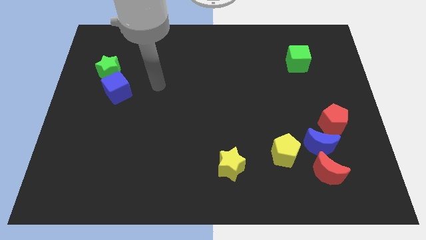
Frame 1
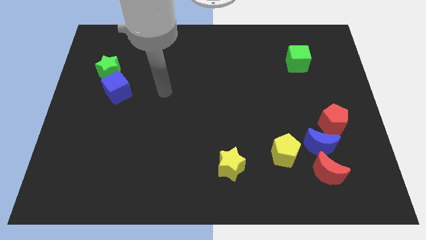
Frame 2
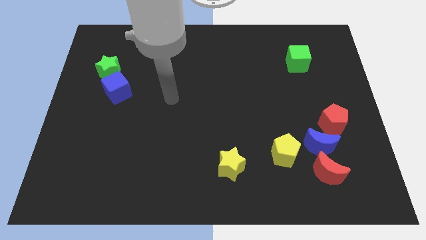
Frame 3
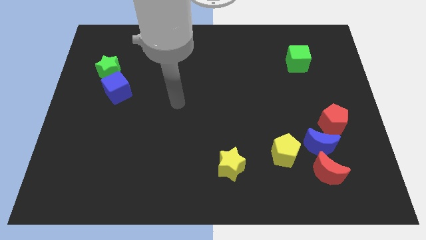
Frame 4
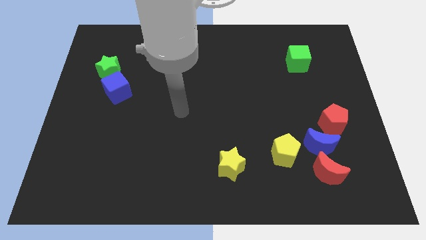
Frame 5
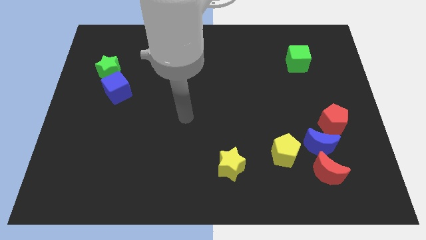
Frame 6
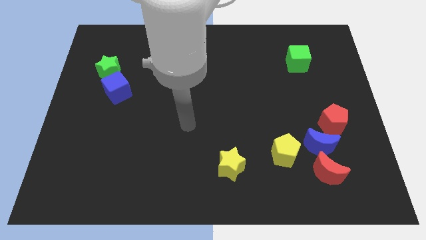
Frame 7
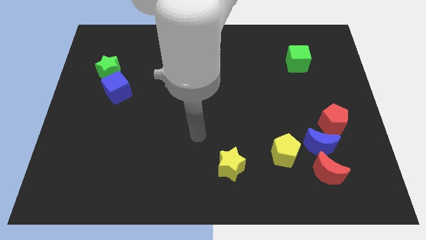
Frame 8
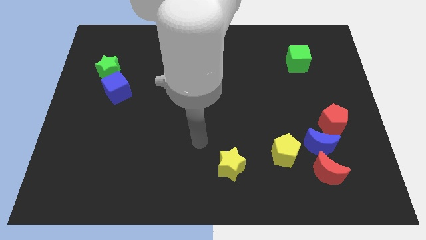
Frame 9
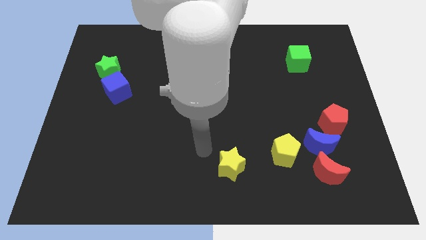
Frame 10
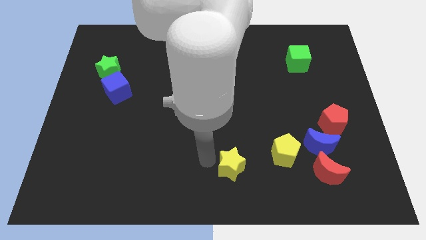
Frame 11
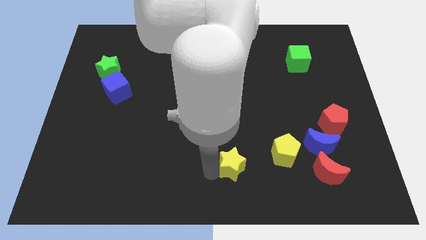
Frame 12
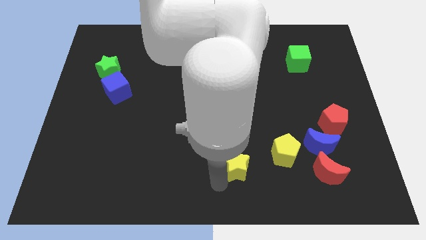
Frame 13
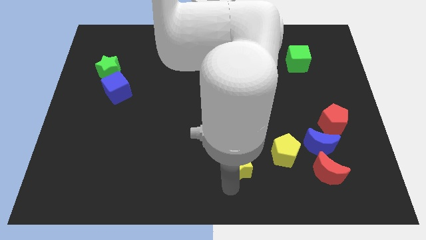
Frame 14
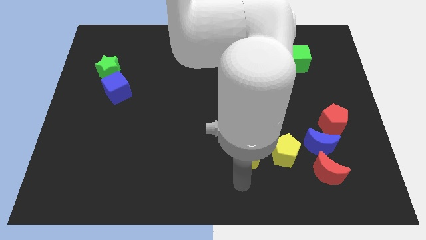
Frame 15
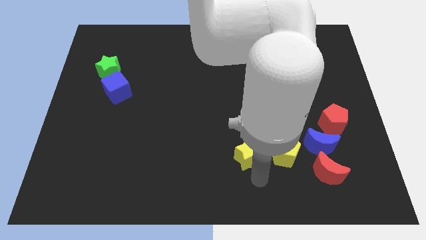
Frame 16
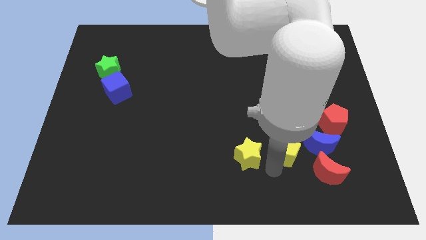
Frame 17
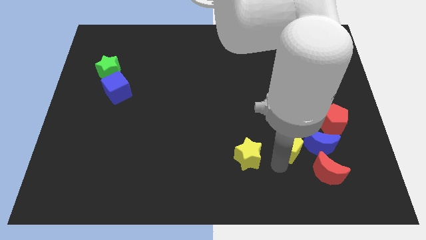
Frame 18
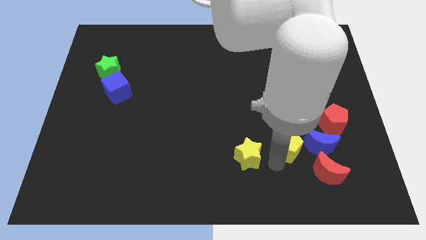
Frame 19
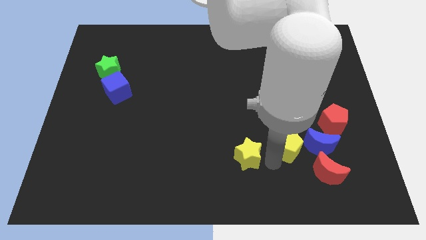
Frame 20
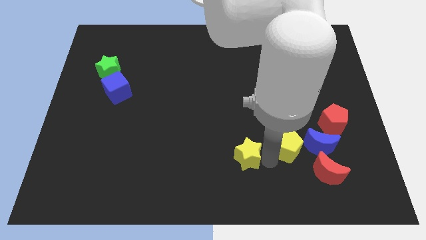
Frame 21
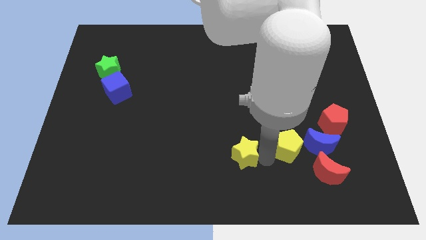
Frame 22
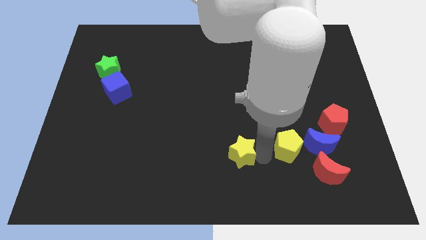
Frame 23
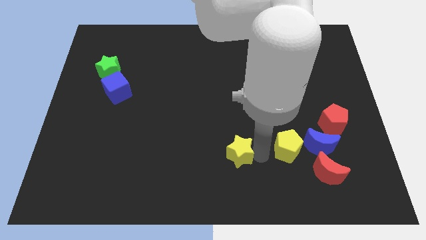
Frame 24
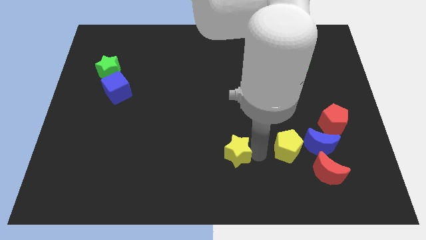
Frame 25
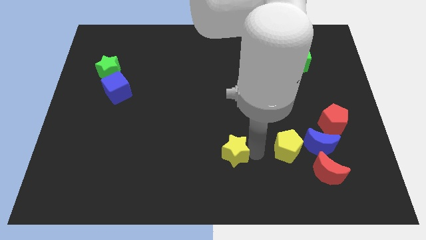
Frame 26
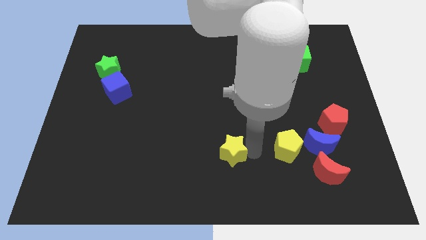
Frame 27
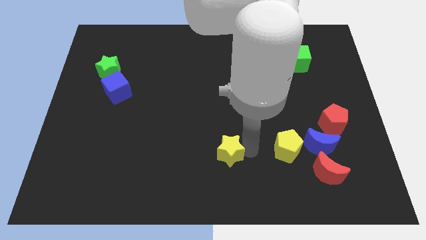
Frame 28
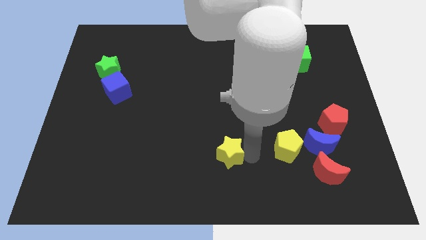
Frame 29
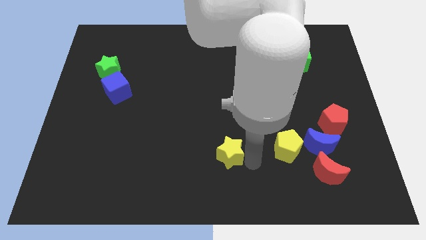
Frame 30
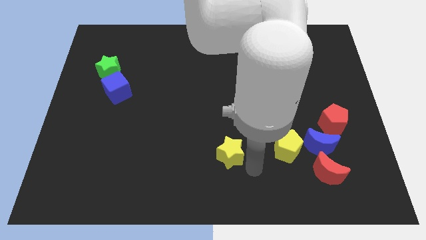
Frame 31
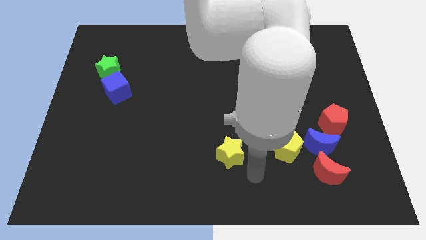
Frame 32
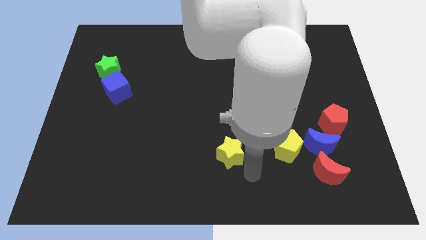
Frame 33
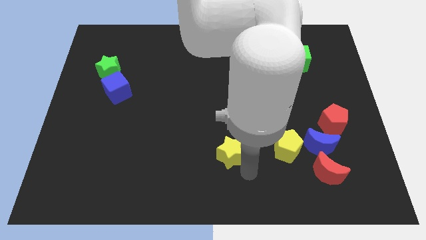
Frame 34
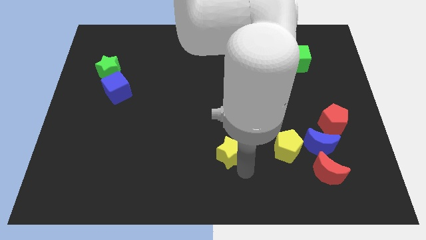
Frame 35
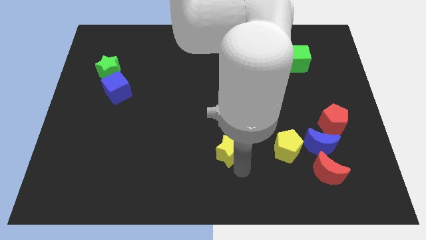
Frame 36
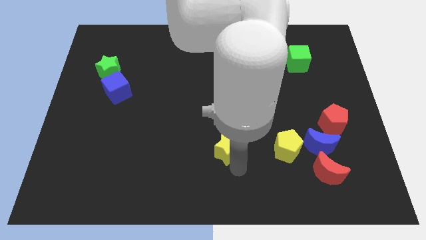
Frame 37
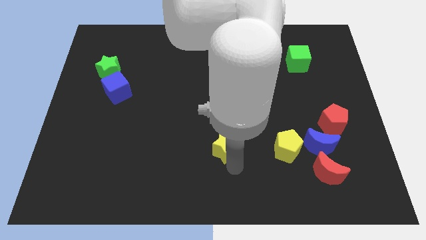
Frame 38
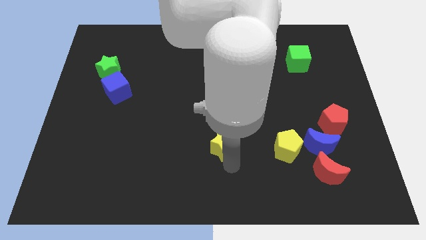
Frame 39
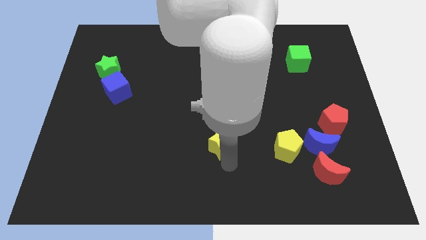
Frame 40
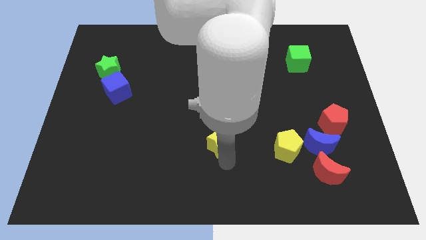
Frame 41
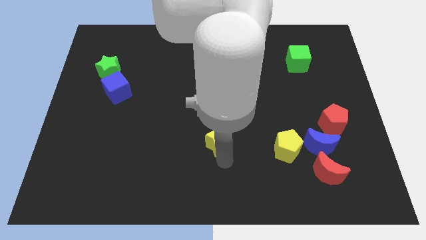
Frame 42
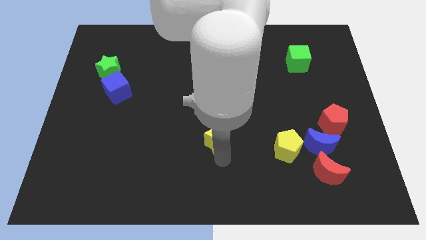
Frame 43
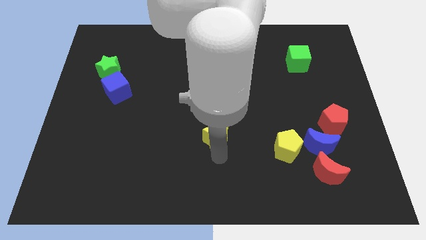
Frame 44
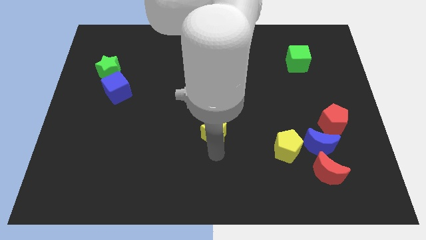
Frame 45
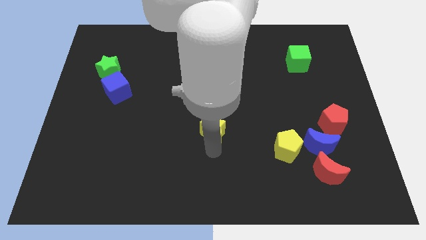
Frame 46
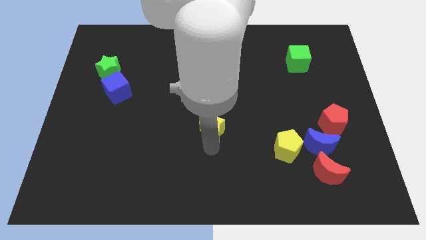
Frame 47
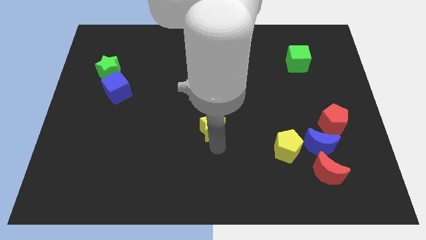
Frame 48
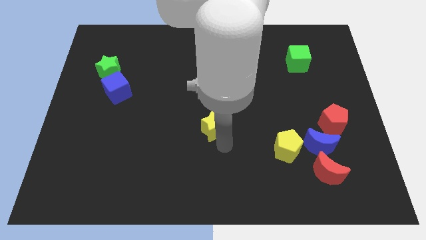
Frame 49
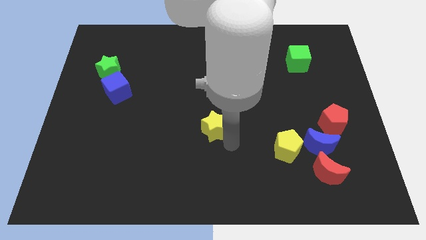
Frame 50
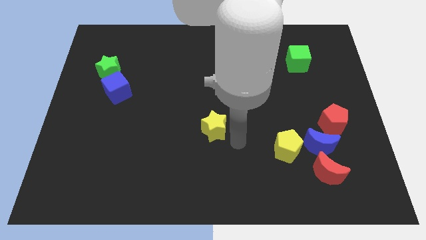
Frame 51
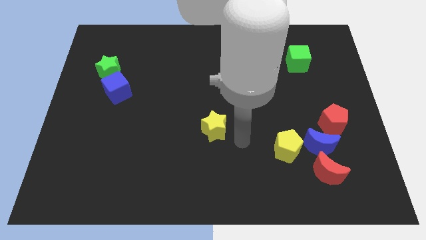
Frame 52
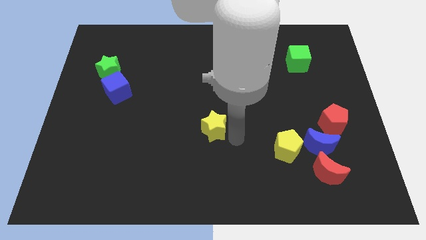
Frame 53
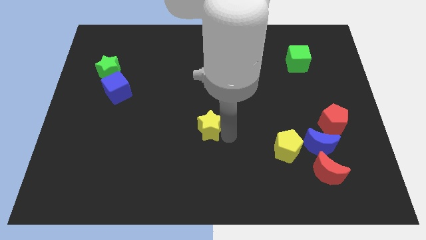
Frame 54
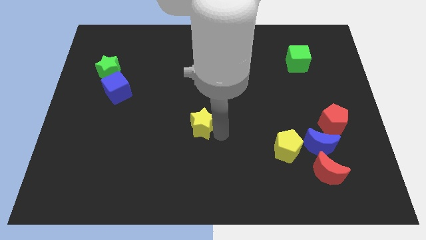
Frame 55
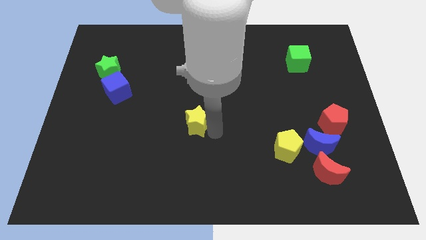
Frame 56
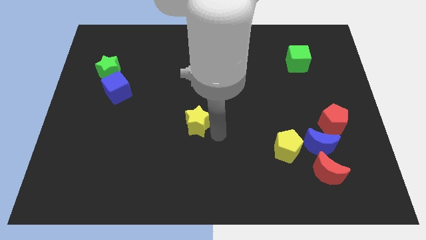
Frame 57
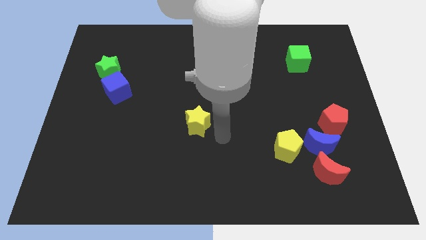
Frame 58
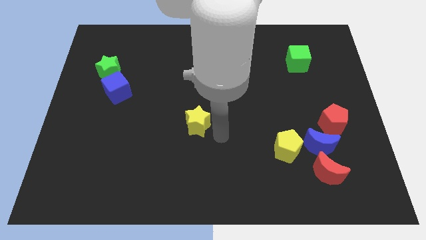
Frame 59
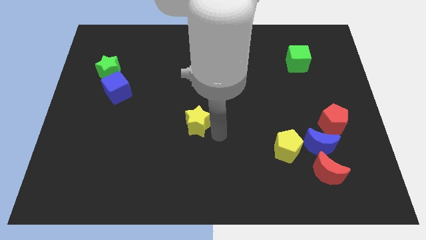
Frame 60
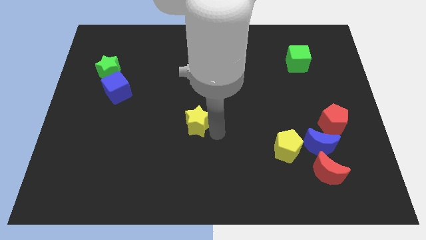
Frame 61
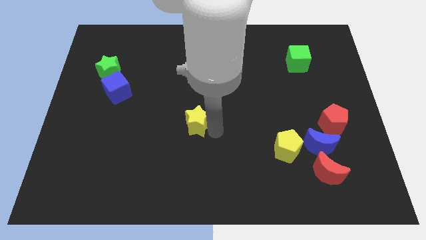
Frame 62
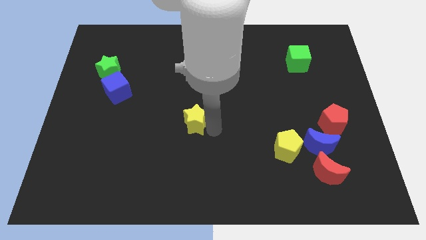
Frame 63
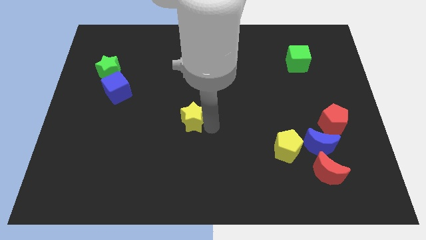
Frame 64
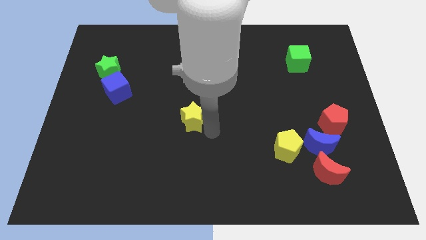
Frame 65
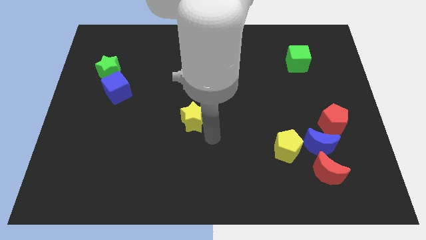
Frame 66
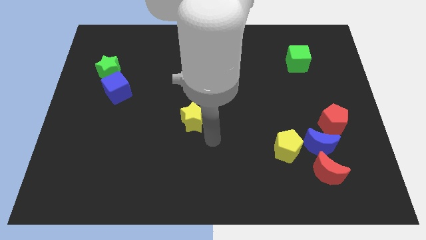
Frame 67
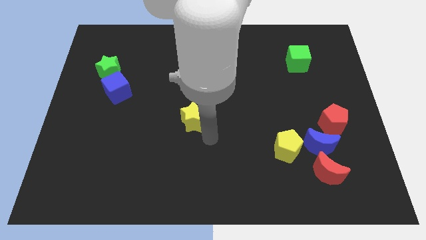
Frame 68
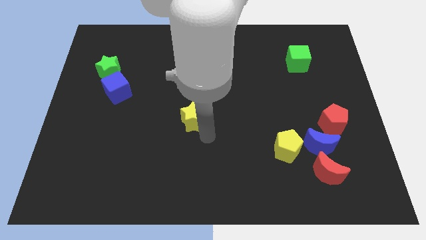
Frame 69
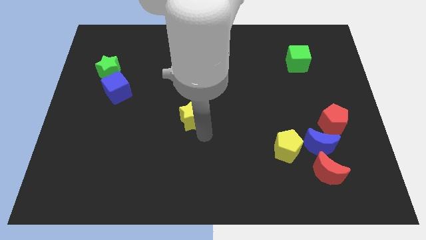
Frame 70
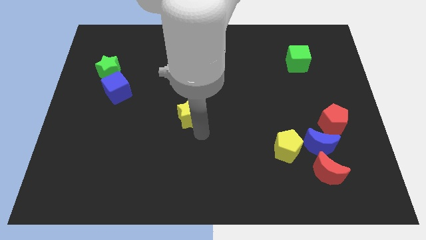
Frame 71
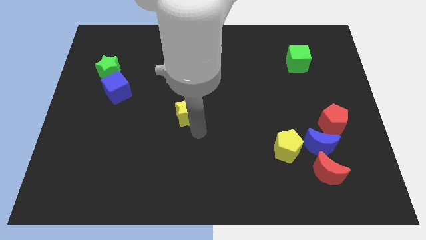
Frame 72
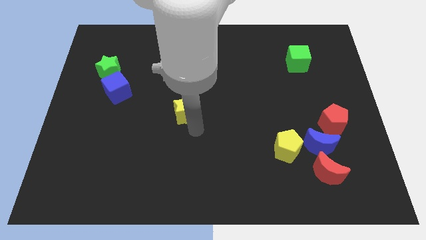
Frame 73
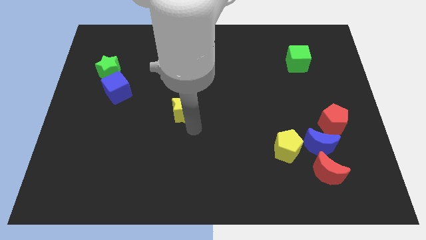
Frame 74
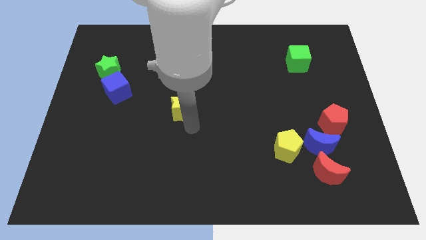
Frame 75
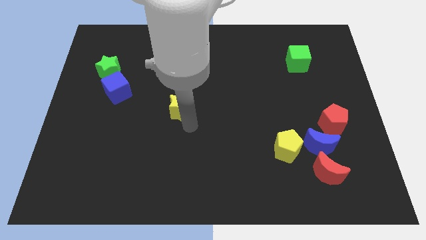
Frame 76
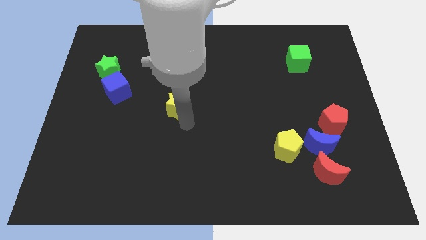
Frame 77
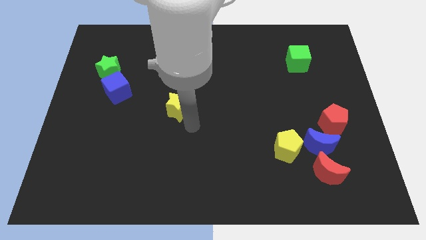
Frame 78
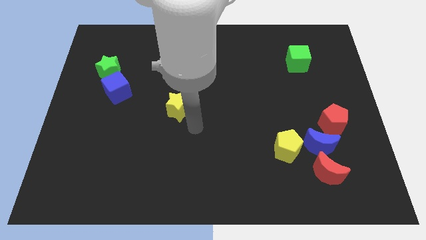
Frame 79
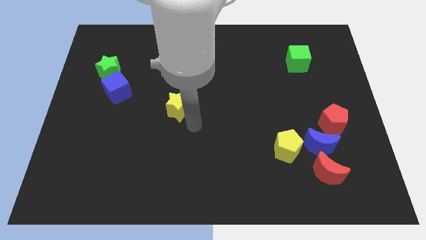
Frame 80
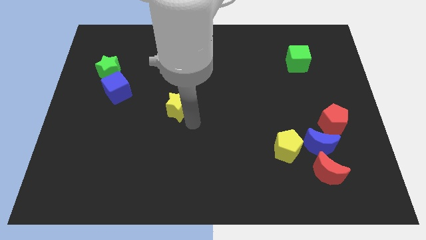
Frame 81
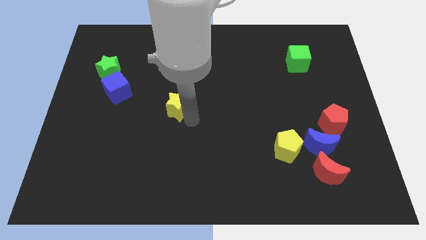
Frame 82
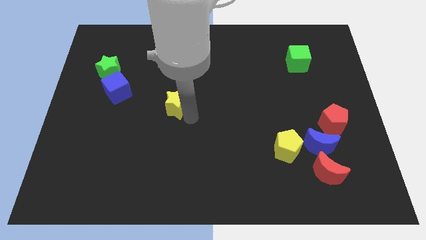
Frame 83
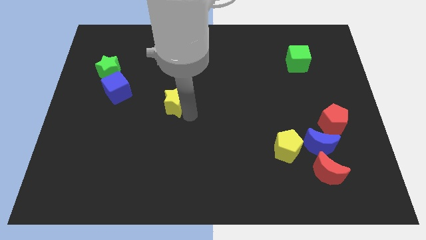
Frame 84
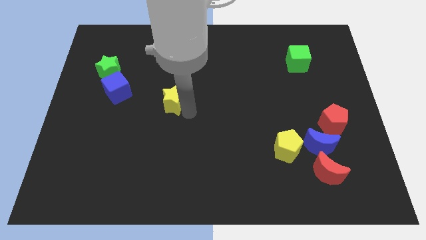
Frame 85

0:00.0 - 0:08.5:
move the yellow star to the right side of the blue cube
